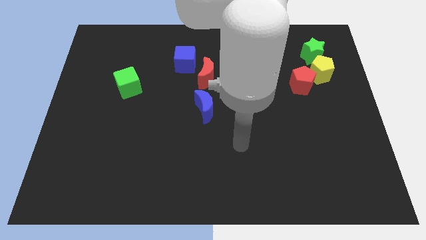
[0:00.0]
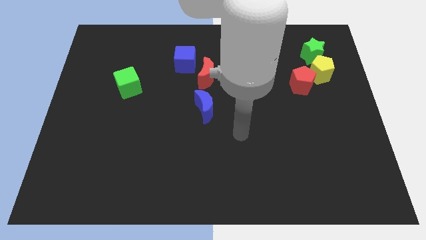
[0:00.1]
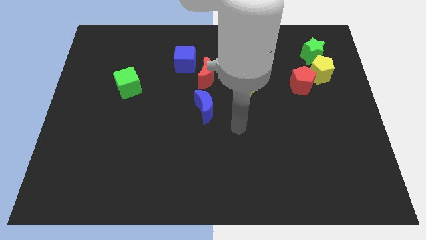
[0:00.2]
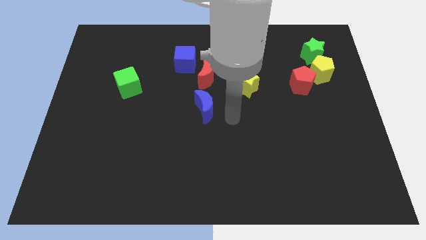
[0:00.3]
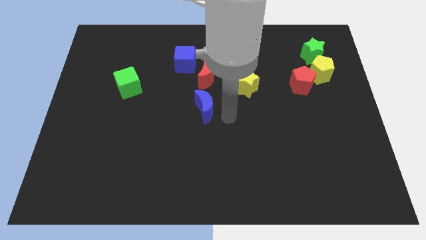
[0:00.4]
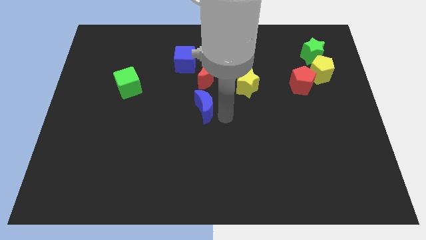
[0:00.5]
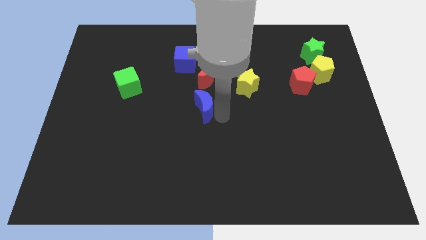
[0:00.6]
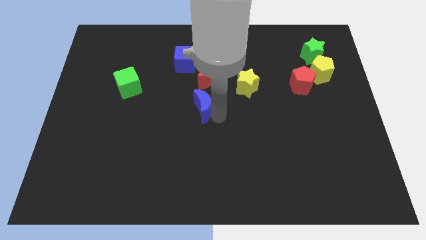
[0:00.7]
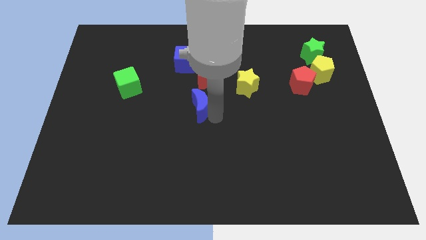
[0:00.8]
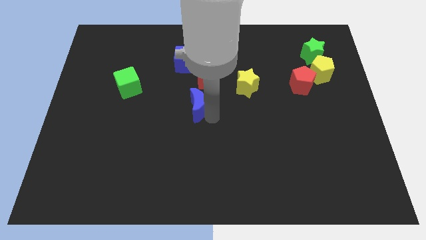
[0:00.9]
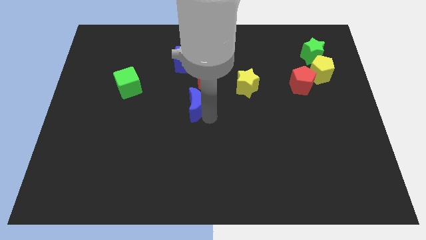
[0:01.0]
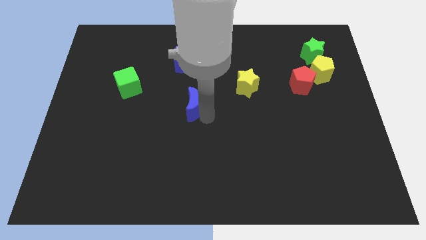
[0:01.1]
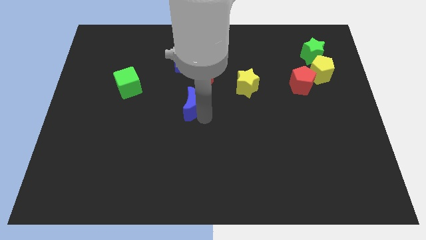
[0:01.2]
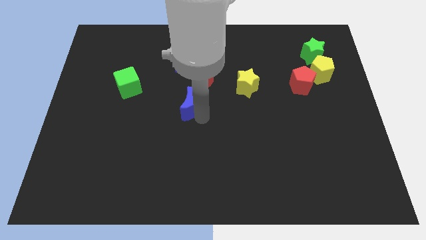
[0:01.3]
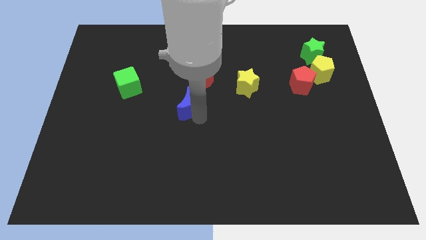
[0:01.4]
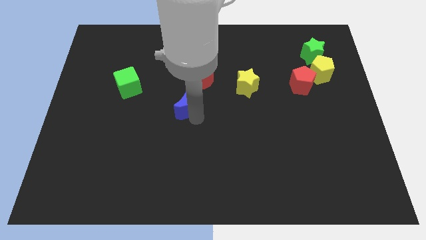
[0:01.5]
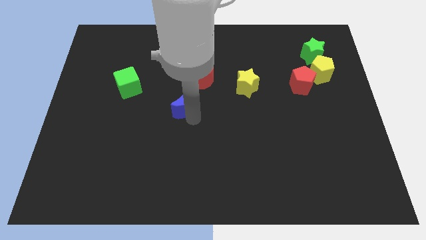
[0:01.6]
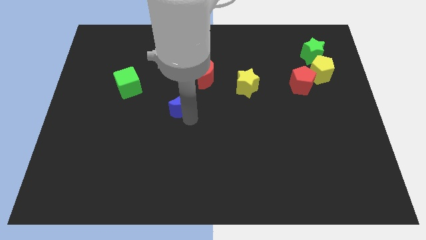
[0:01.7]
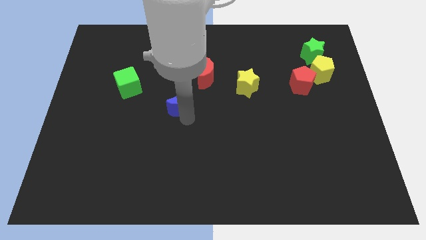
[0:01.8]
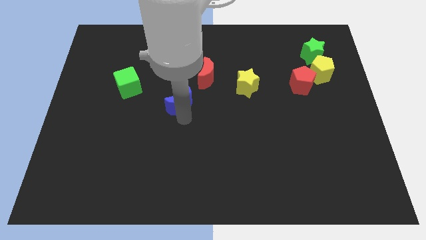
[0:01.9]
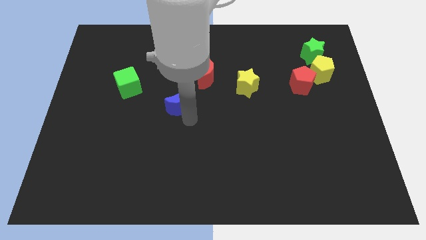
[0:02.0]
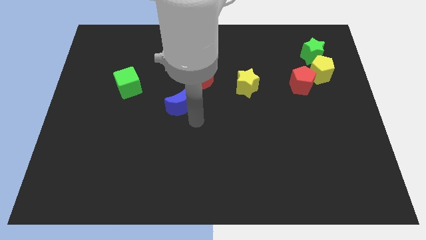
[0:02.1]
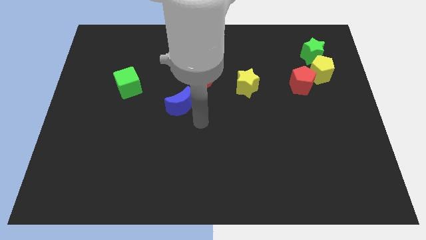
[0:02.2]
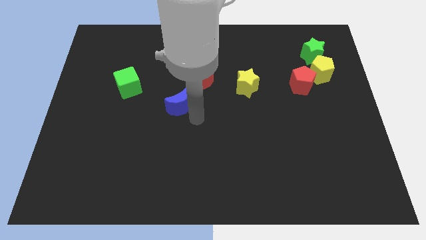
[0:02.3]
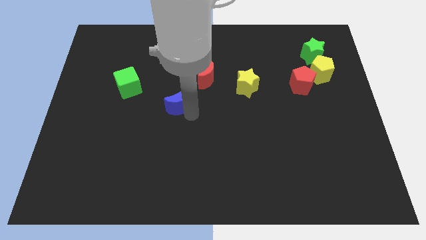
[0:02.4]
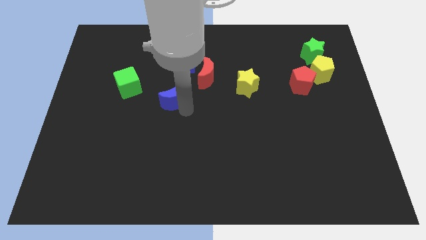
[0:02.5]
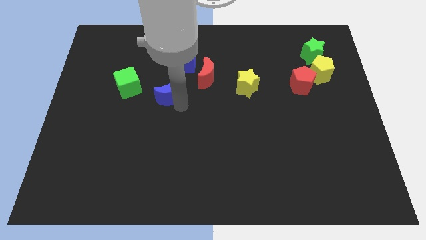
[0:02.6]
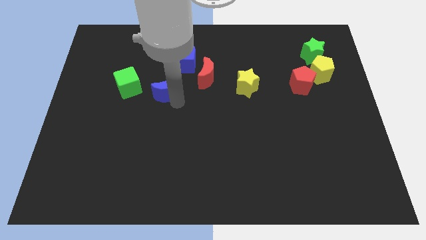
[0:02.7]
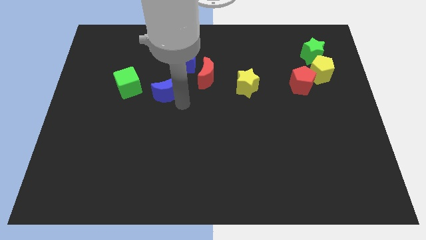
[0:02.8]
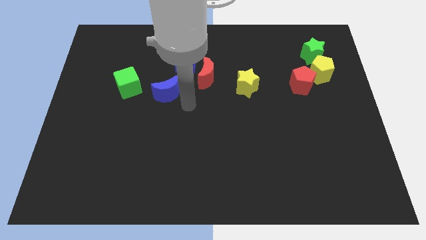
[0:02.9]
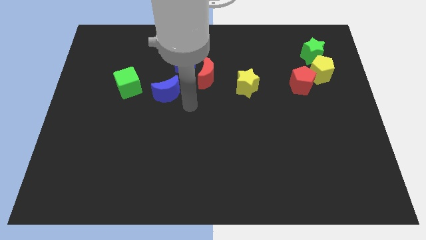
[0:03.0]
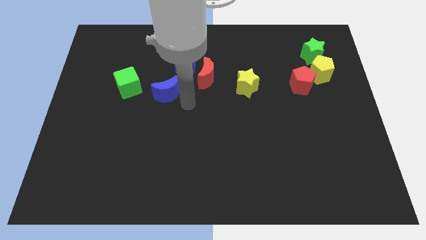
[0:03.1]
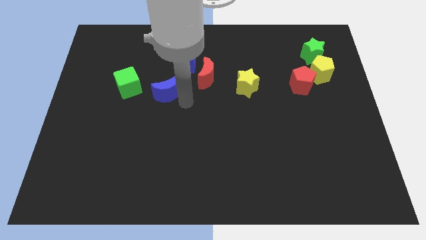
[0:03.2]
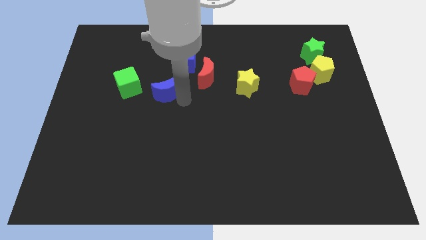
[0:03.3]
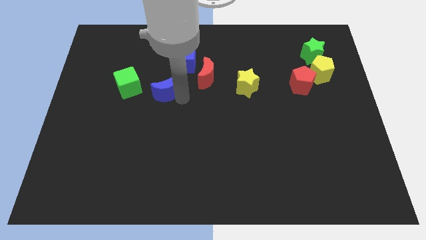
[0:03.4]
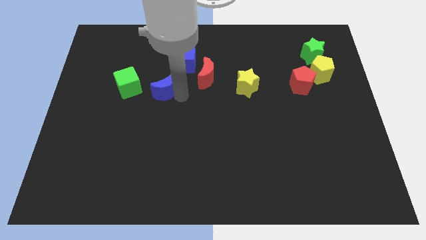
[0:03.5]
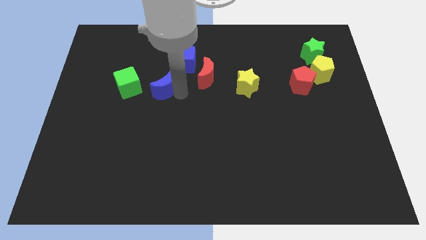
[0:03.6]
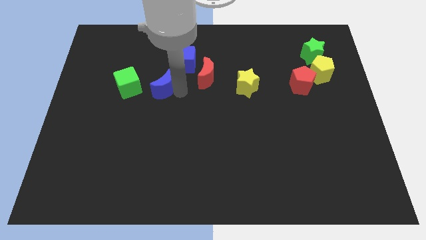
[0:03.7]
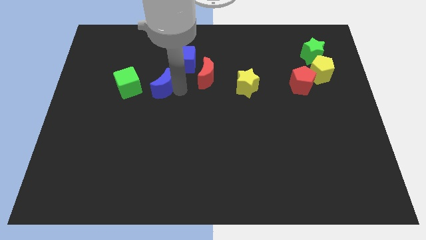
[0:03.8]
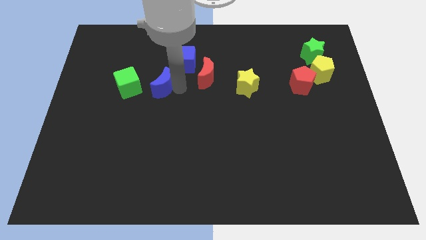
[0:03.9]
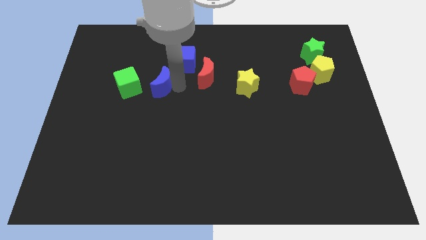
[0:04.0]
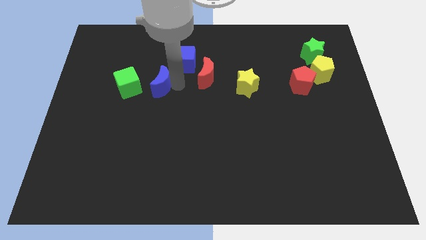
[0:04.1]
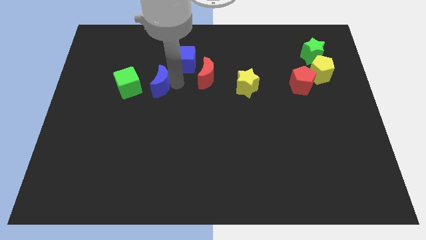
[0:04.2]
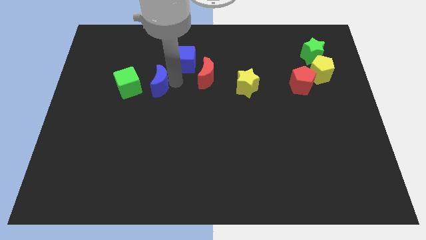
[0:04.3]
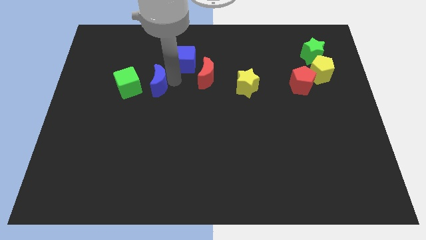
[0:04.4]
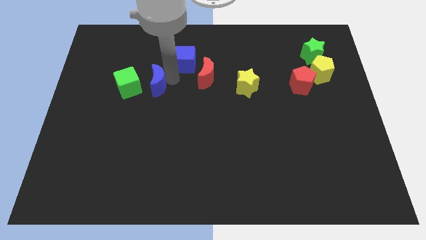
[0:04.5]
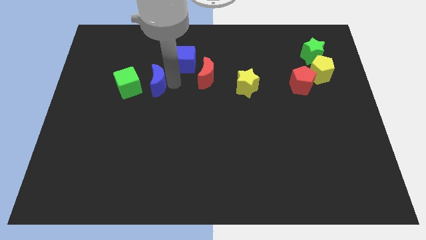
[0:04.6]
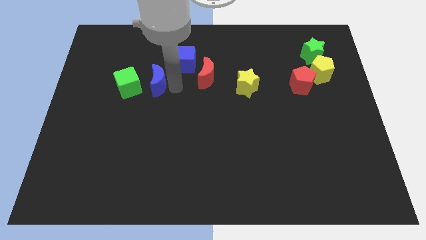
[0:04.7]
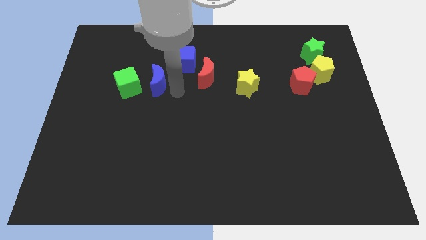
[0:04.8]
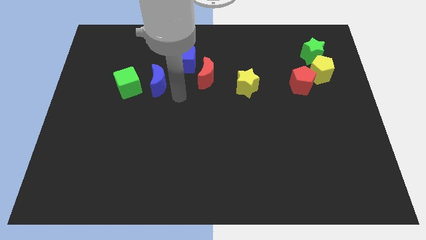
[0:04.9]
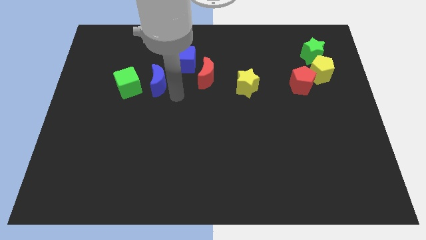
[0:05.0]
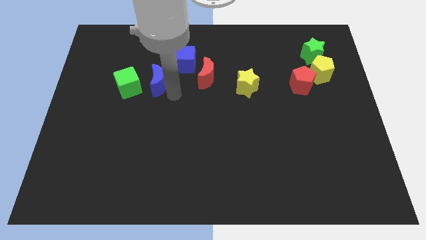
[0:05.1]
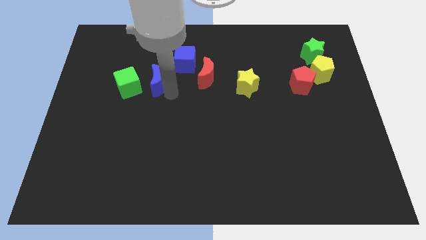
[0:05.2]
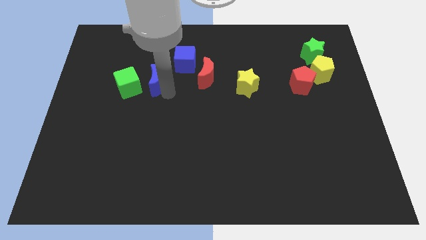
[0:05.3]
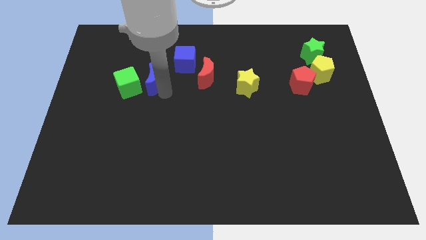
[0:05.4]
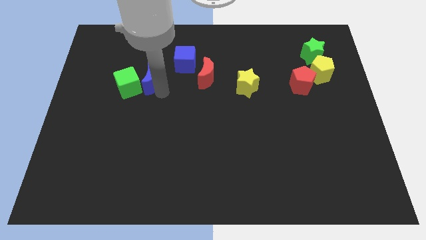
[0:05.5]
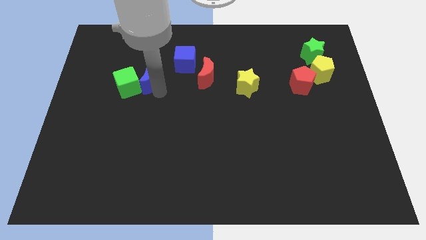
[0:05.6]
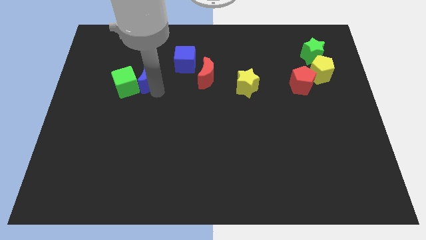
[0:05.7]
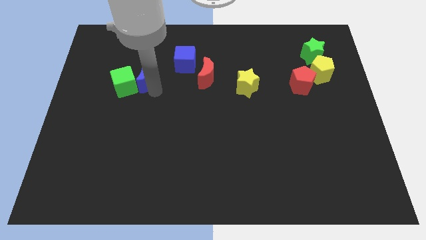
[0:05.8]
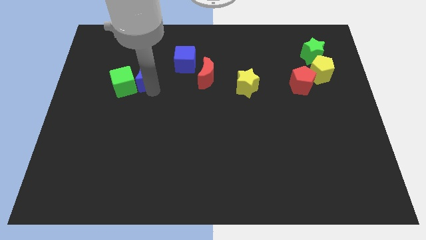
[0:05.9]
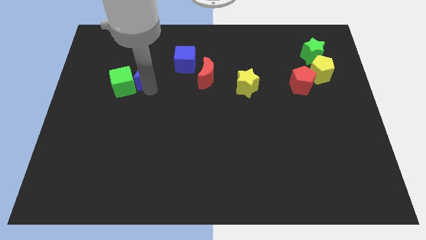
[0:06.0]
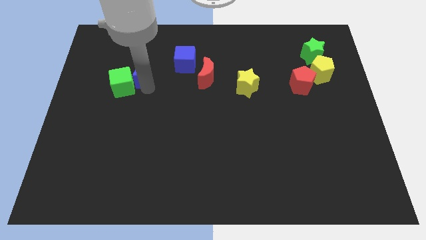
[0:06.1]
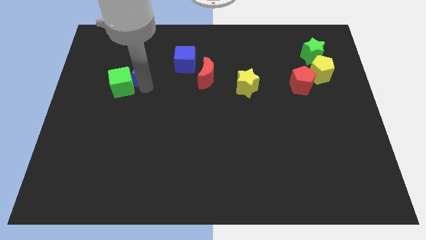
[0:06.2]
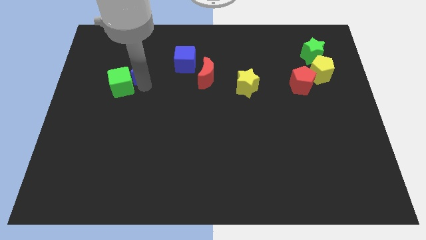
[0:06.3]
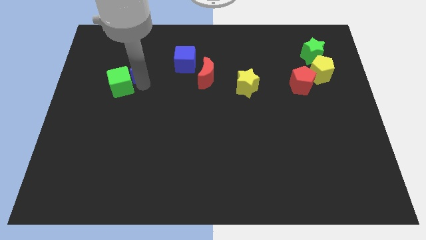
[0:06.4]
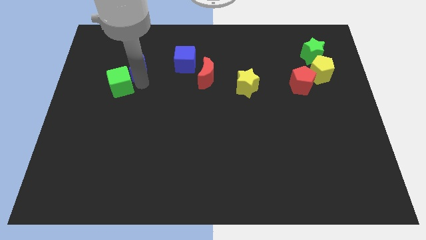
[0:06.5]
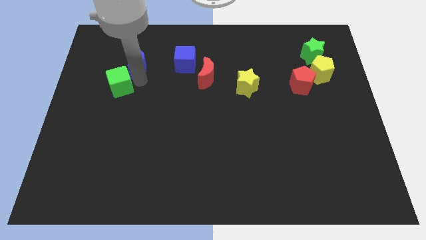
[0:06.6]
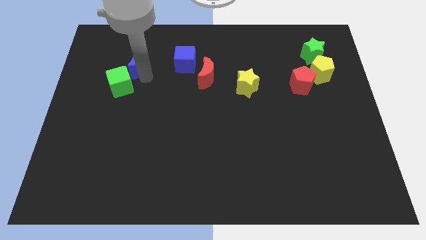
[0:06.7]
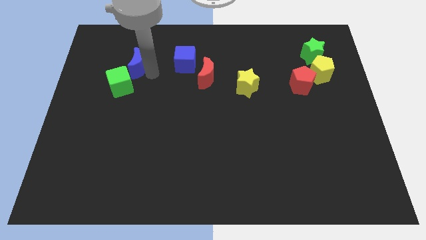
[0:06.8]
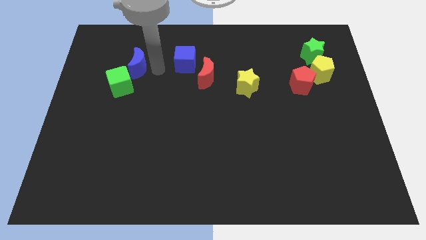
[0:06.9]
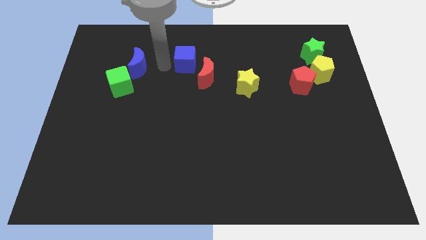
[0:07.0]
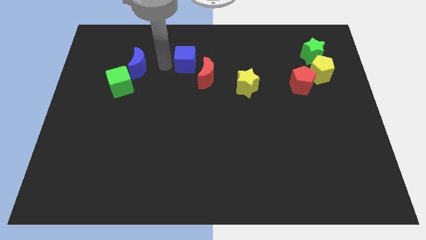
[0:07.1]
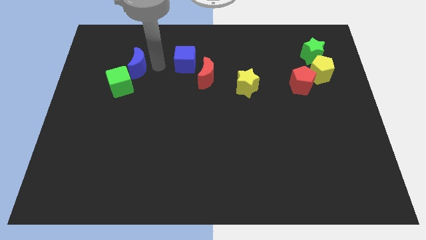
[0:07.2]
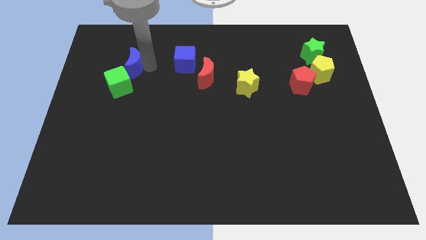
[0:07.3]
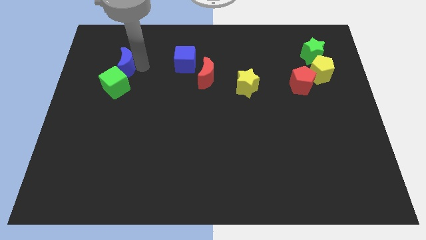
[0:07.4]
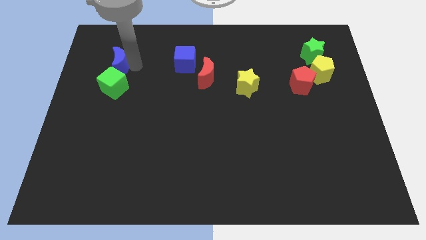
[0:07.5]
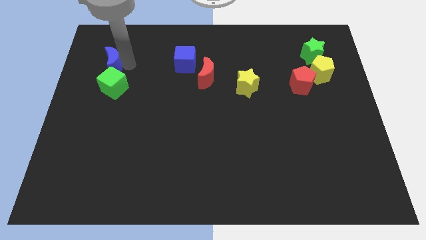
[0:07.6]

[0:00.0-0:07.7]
slide the blue moon to the top left side of the green cube
